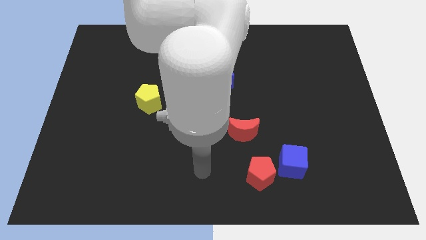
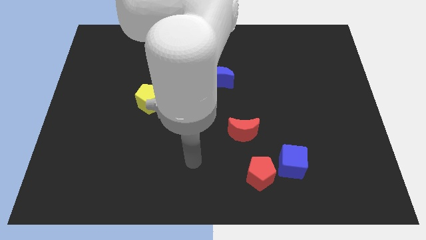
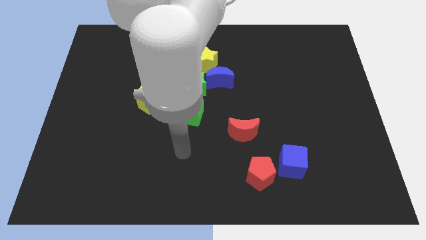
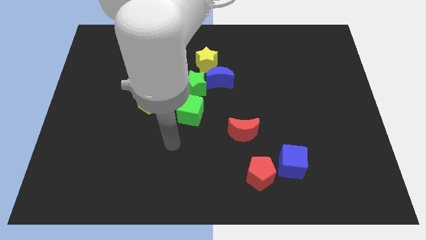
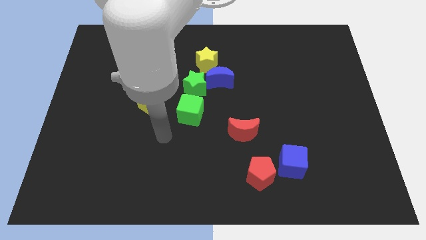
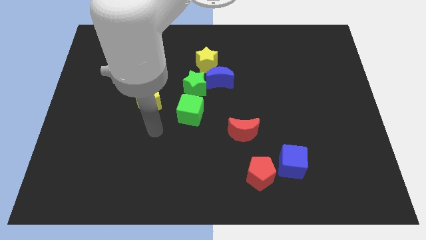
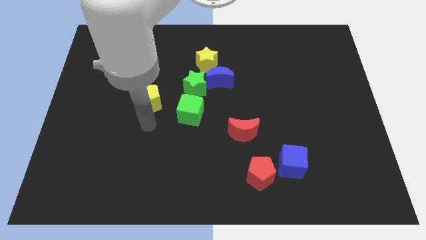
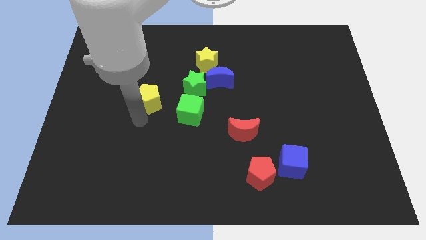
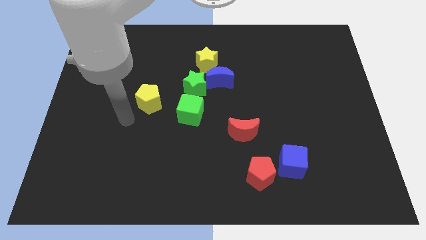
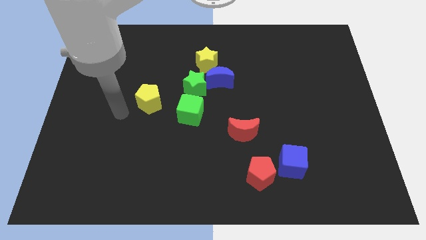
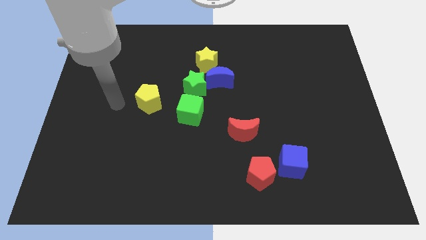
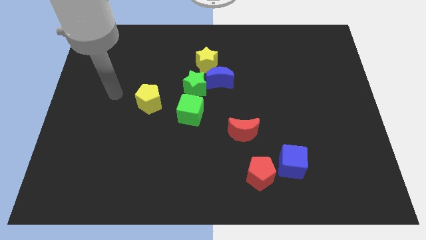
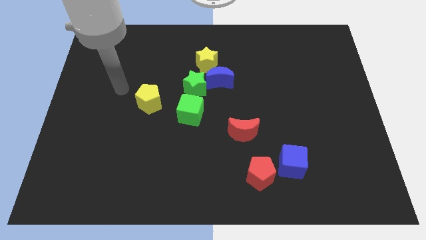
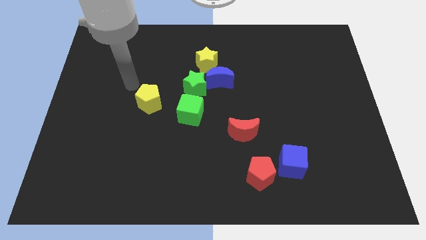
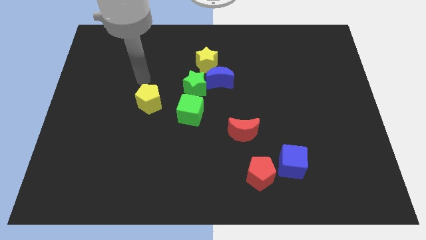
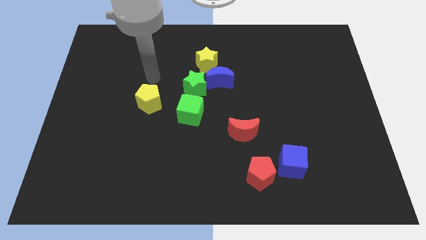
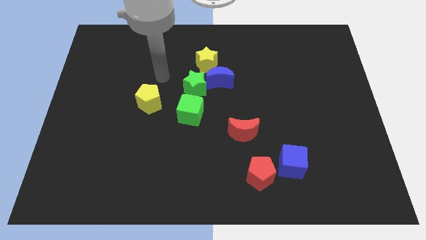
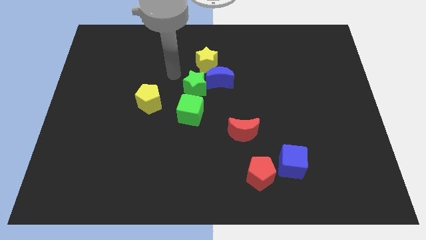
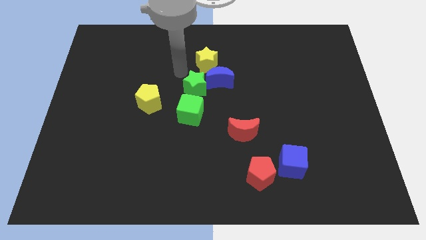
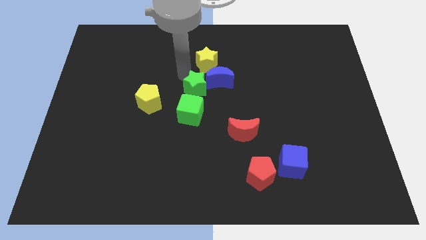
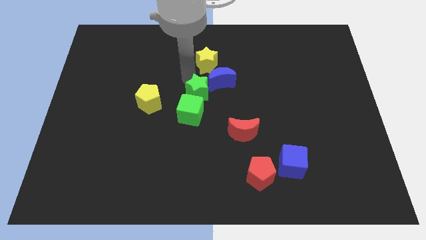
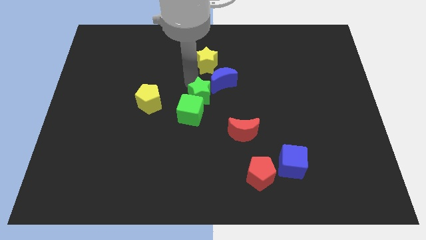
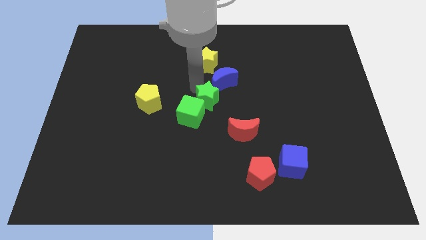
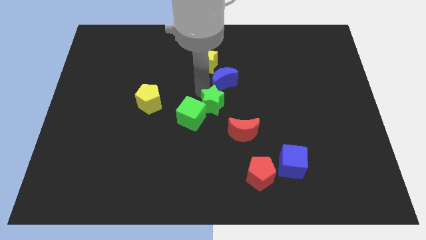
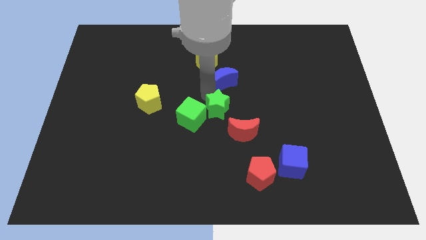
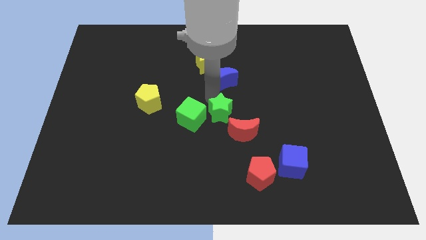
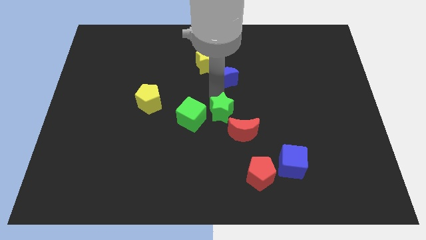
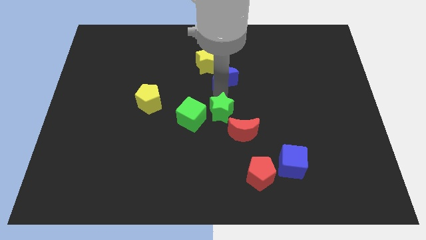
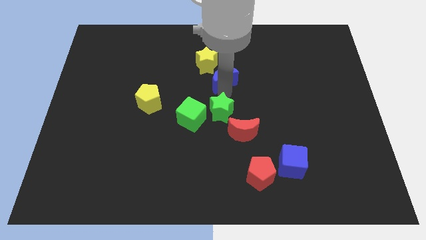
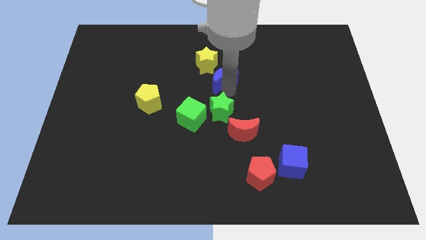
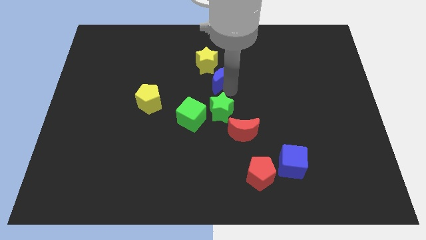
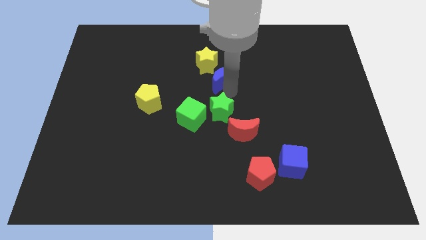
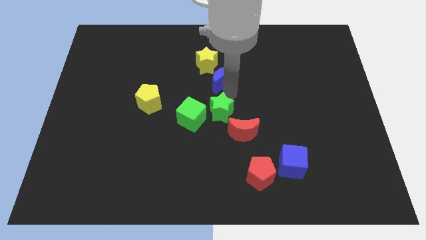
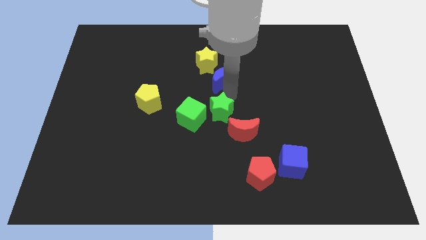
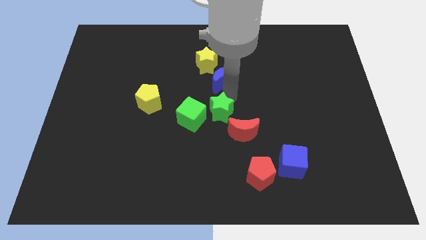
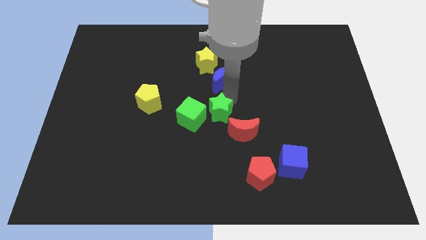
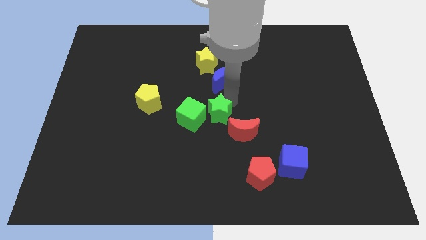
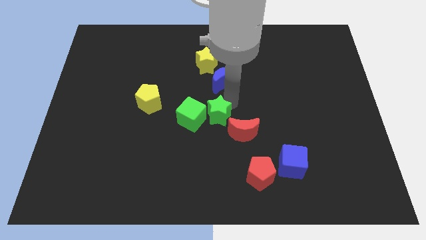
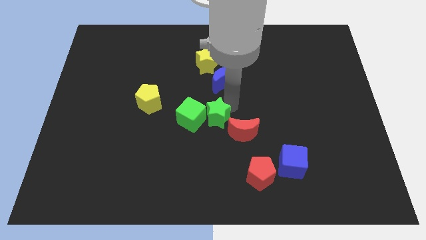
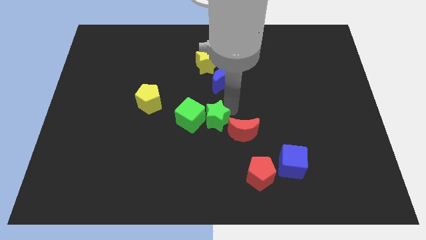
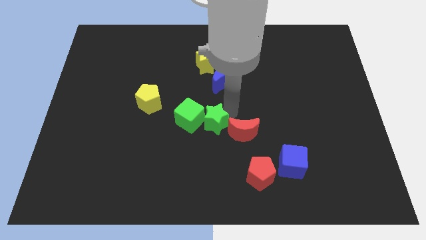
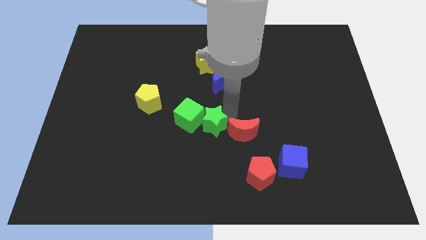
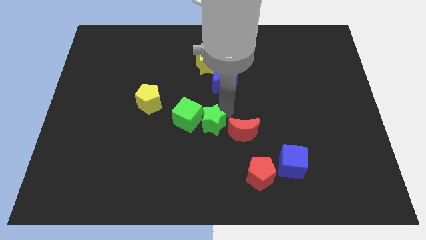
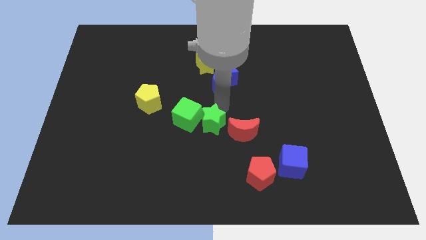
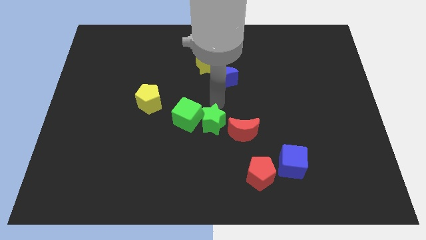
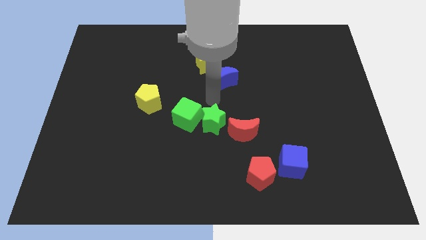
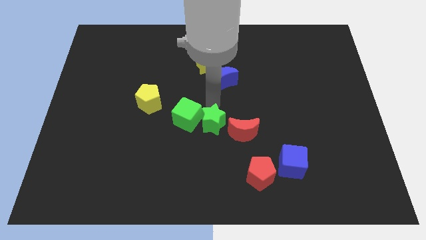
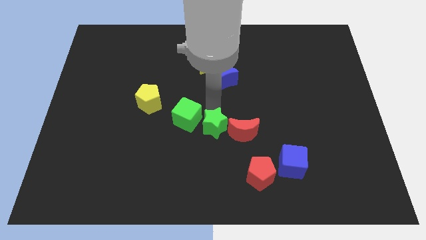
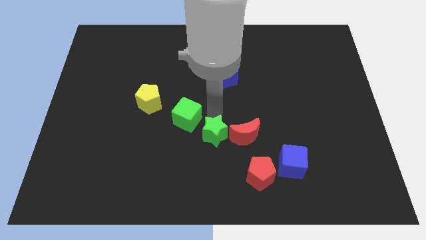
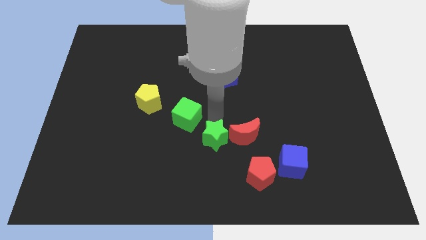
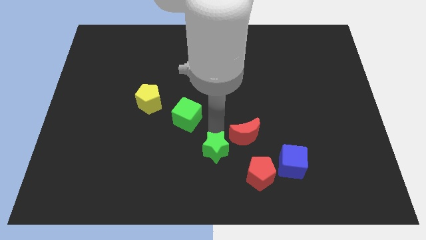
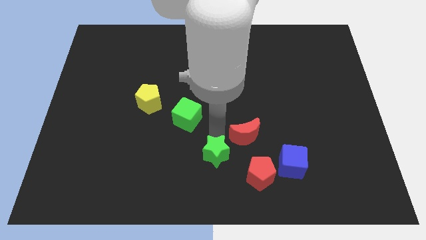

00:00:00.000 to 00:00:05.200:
put the green star to the bottom

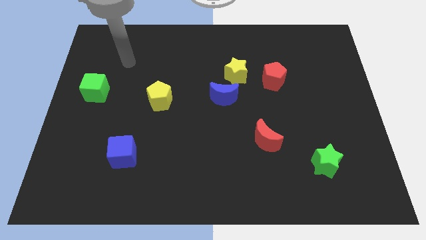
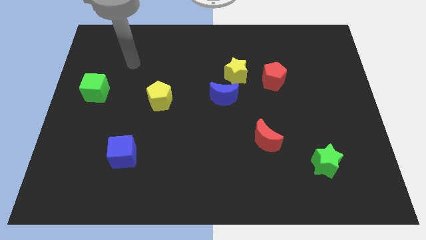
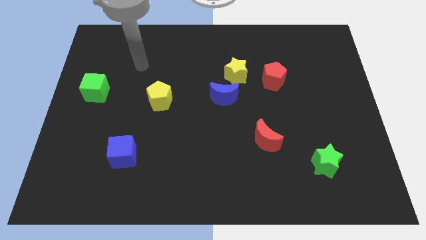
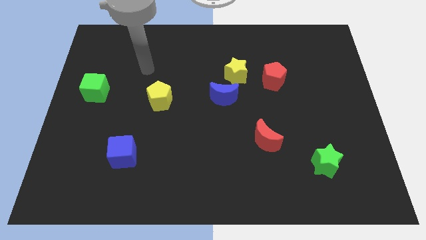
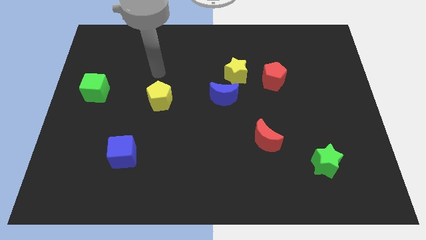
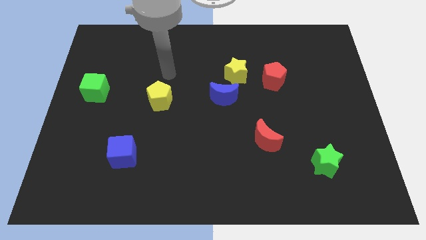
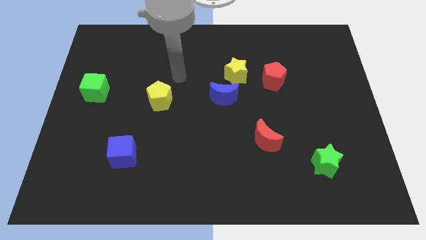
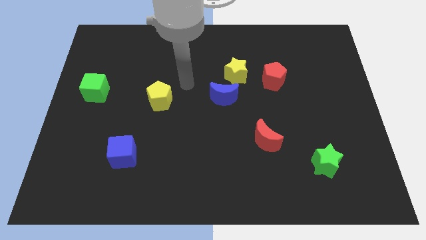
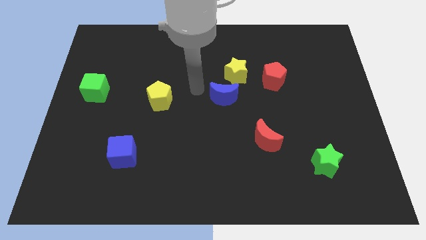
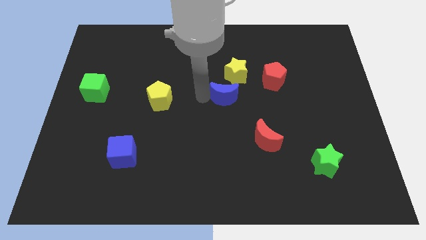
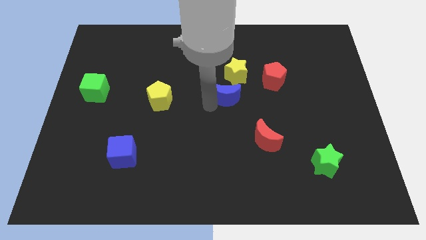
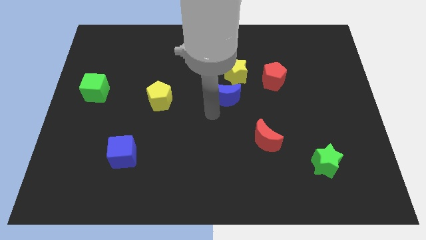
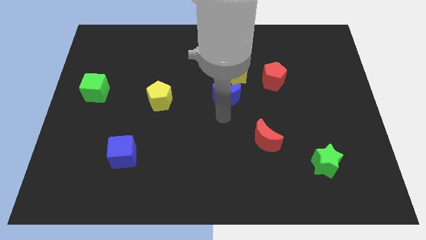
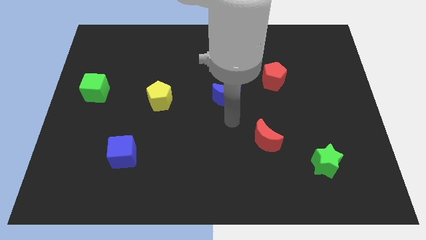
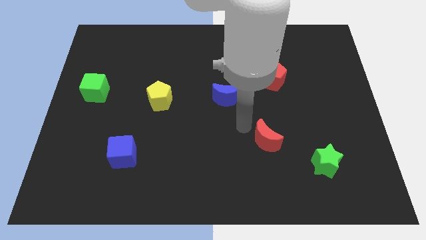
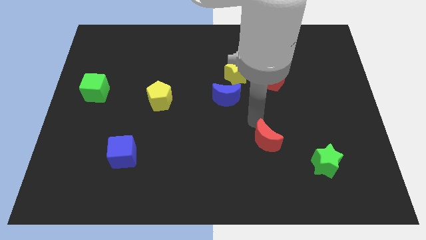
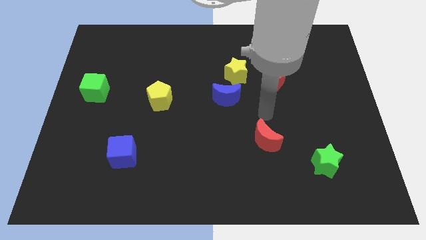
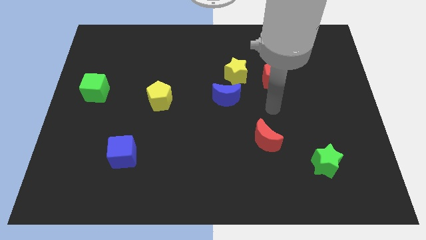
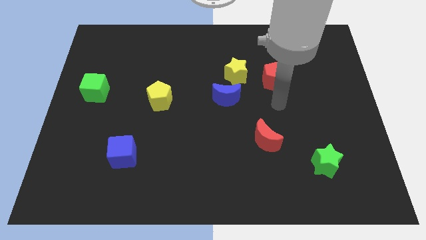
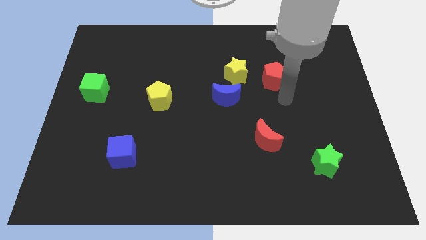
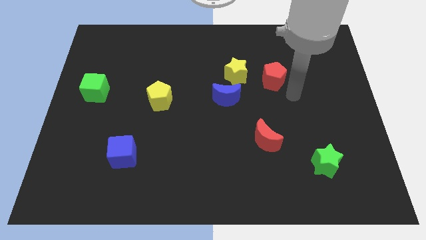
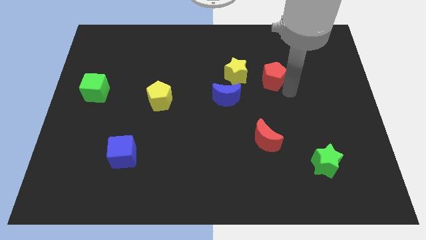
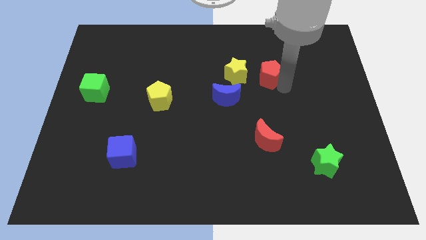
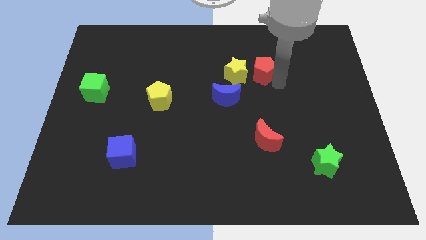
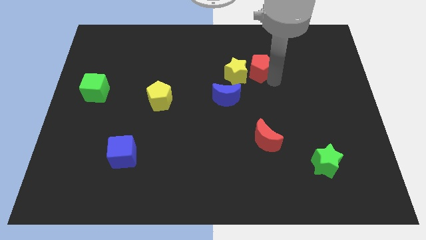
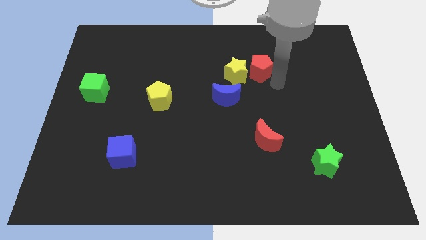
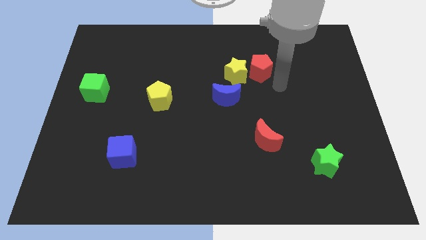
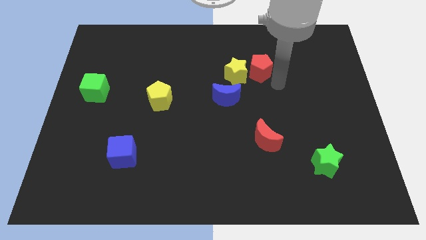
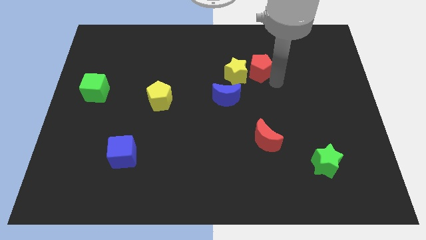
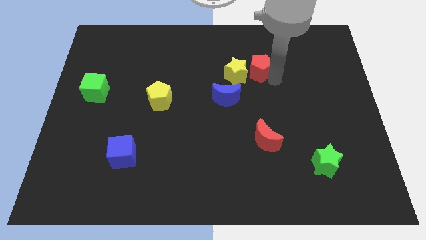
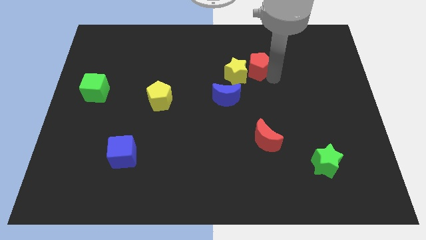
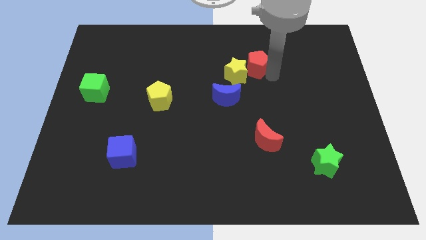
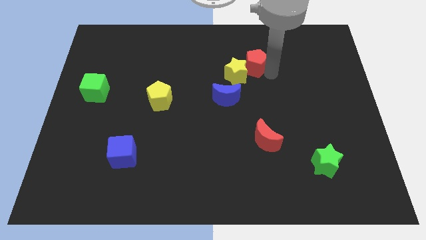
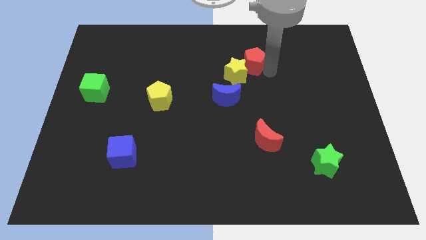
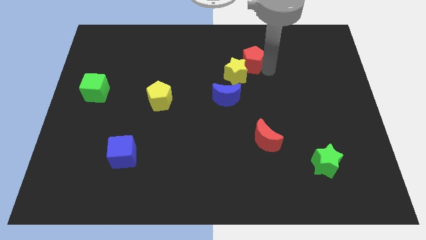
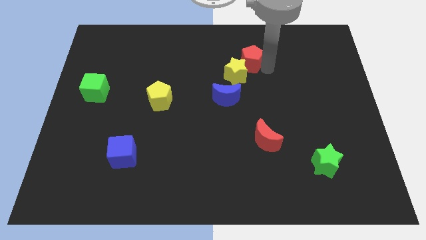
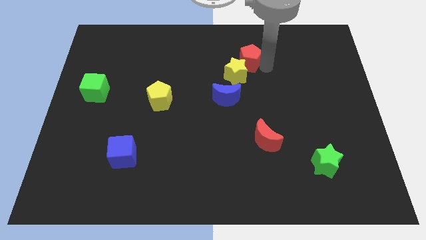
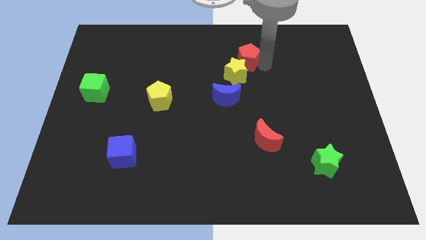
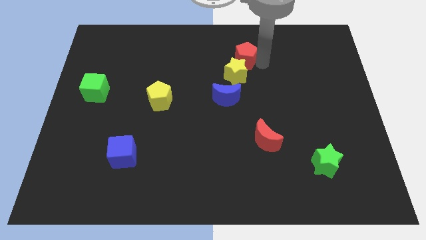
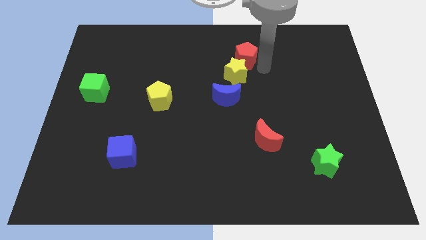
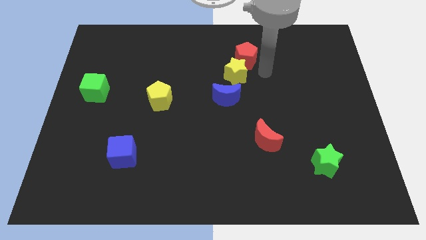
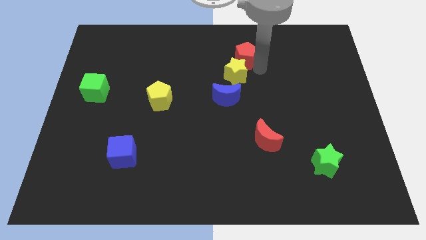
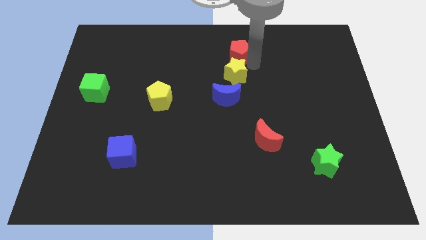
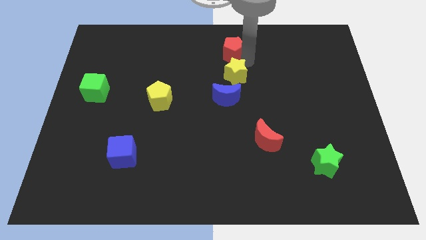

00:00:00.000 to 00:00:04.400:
put the red pentagon to the top side
